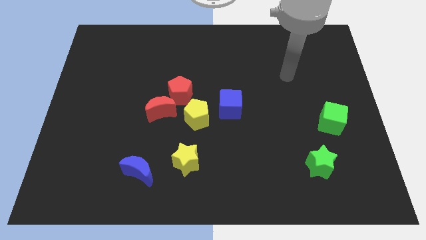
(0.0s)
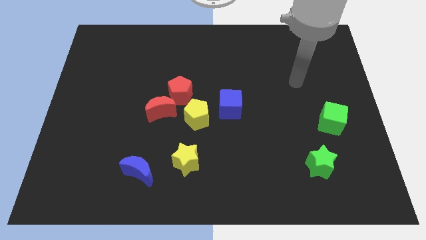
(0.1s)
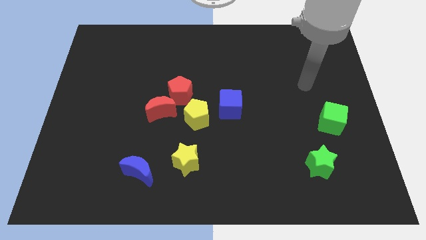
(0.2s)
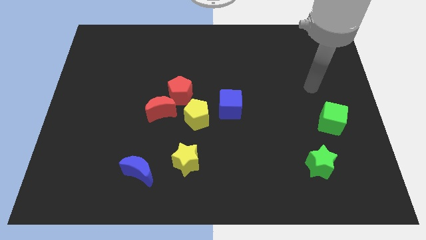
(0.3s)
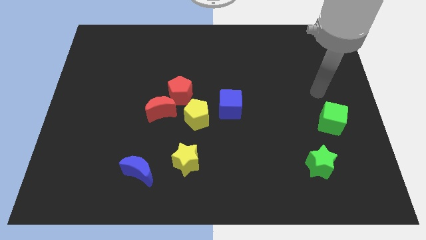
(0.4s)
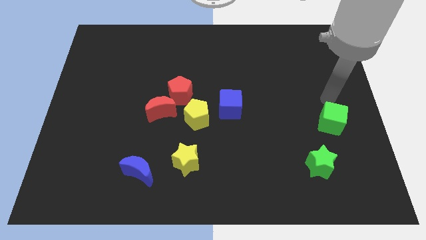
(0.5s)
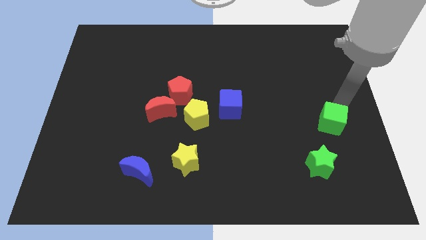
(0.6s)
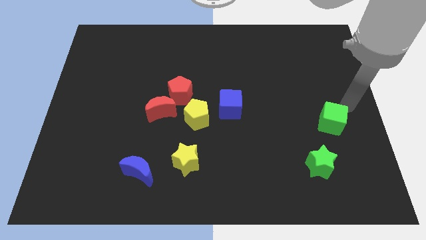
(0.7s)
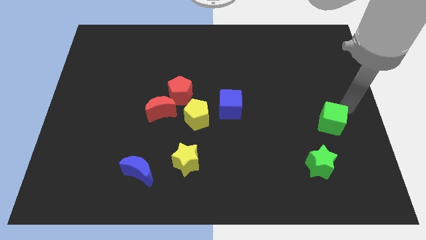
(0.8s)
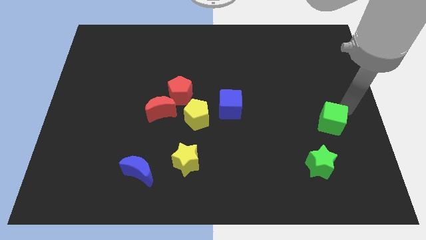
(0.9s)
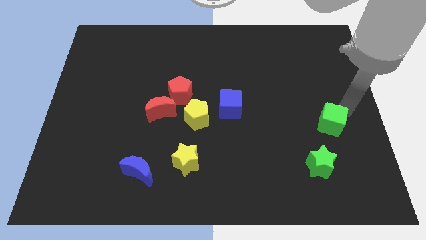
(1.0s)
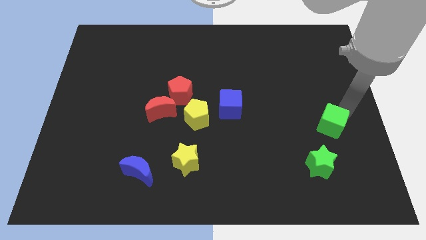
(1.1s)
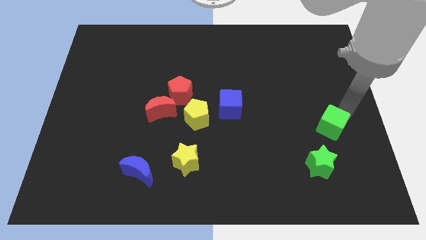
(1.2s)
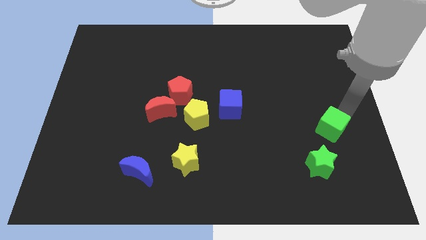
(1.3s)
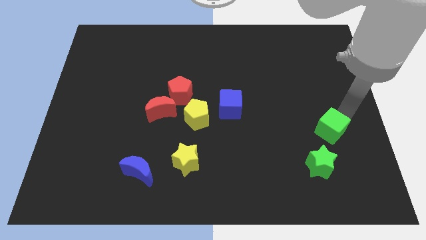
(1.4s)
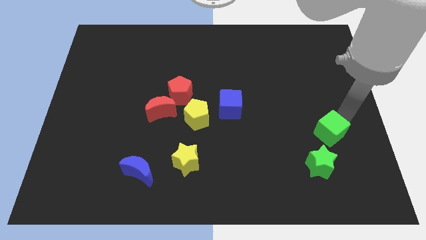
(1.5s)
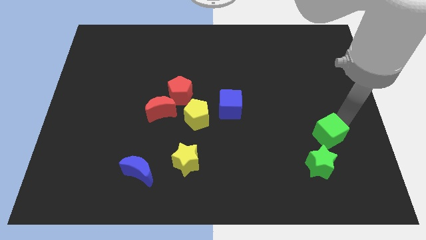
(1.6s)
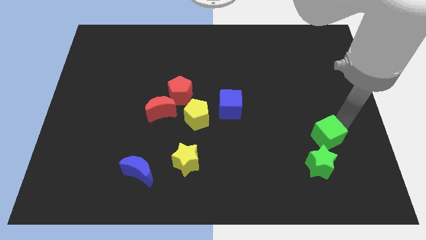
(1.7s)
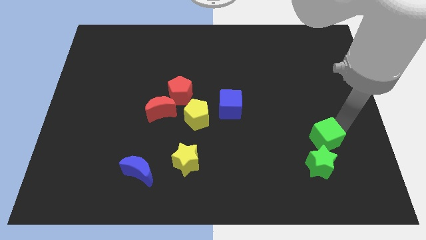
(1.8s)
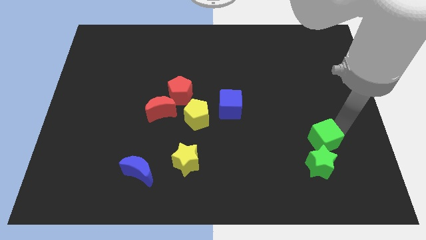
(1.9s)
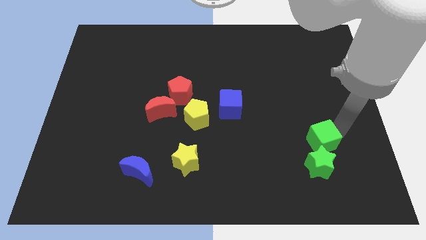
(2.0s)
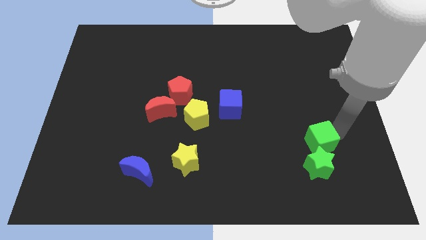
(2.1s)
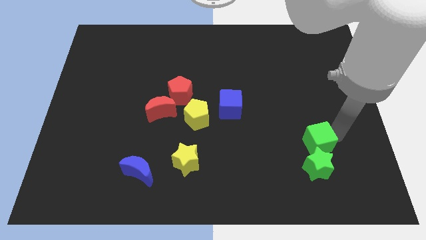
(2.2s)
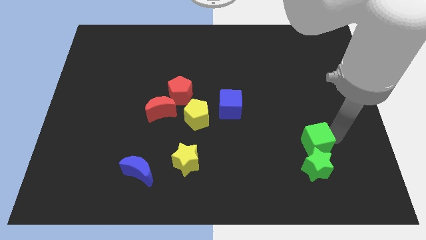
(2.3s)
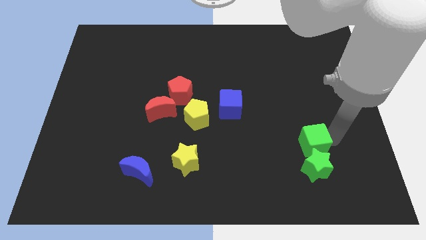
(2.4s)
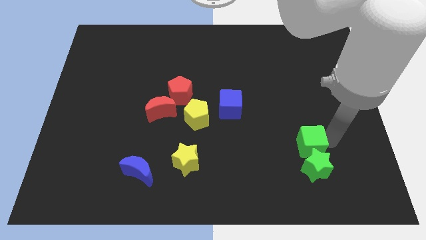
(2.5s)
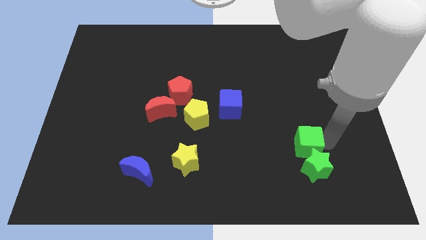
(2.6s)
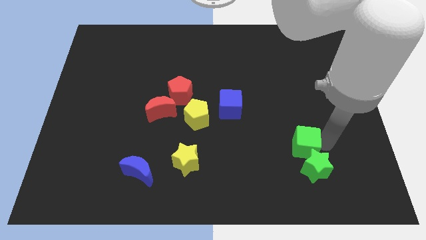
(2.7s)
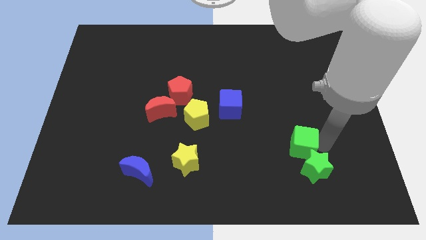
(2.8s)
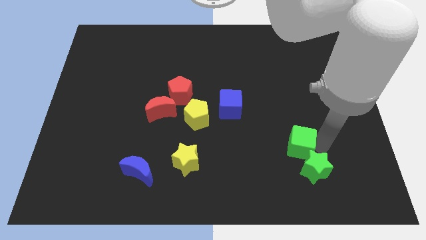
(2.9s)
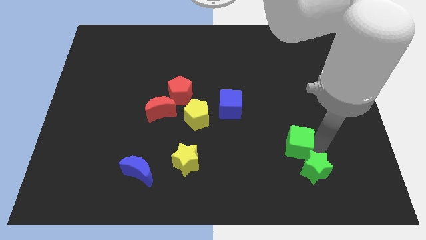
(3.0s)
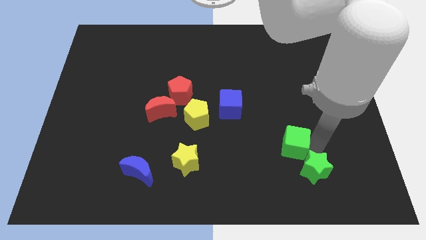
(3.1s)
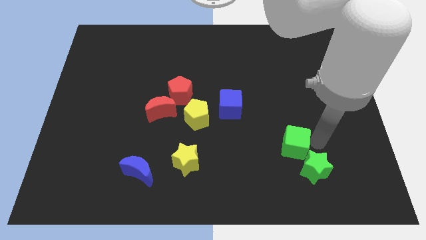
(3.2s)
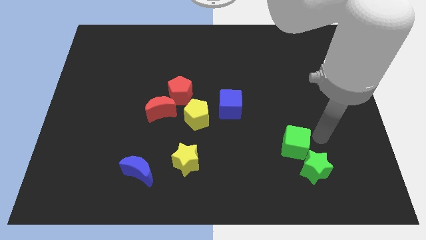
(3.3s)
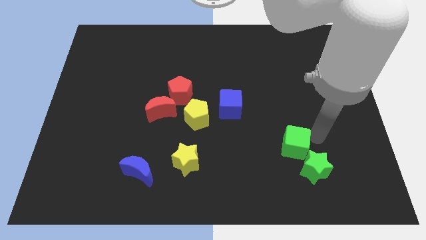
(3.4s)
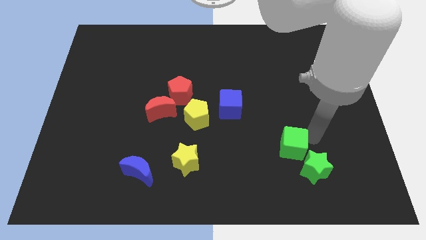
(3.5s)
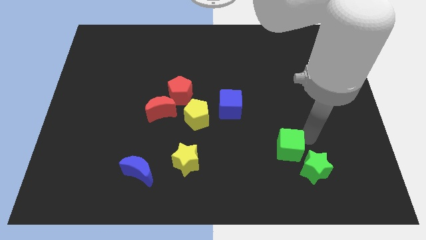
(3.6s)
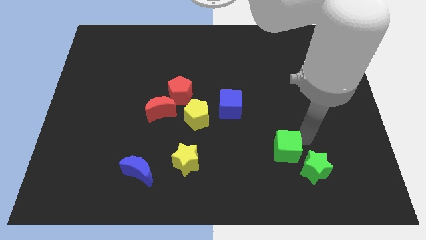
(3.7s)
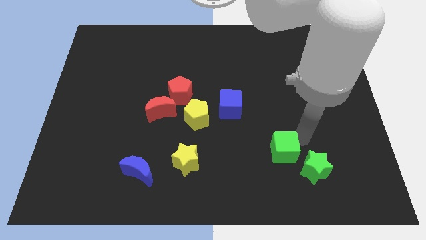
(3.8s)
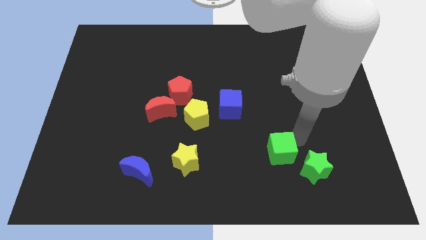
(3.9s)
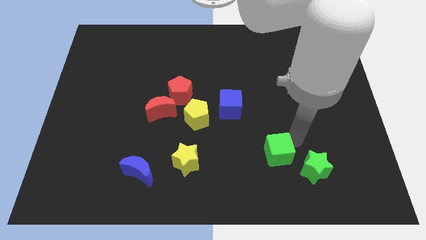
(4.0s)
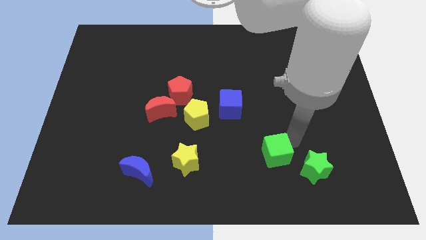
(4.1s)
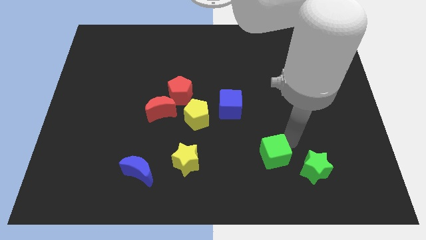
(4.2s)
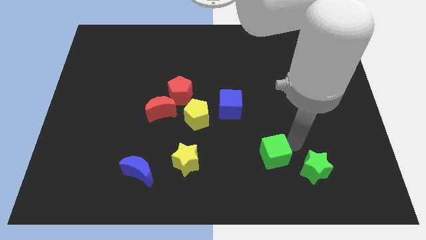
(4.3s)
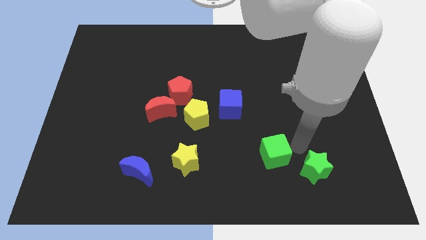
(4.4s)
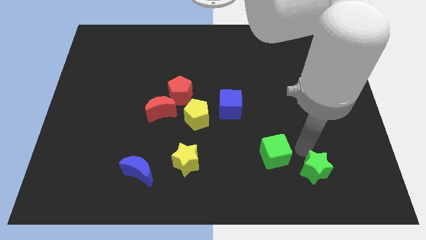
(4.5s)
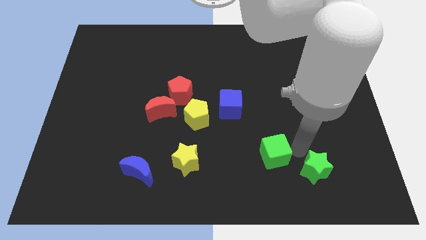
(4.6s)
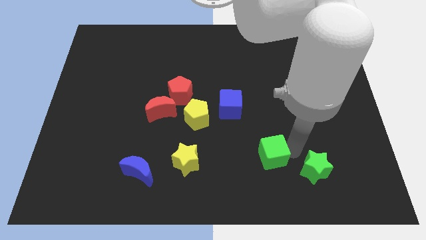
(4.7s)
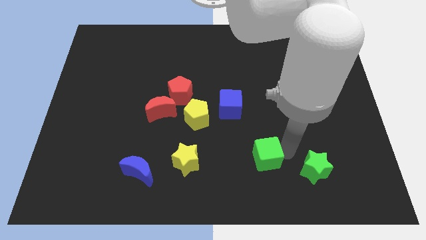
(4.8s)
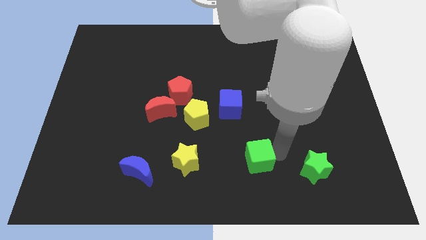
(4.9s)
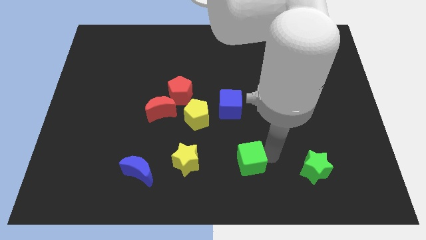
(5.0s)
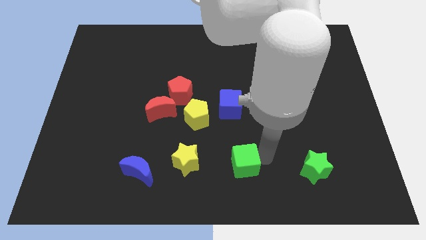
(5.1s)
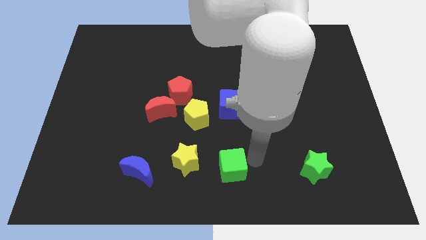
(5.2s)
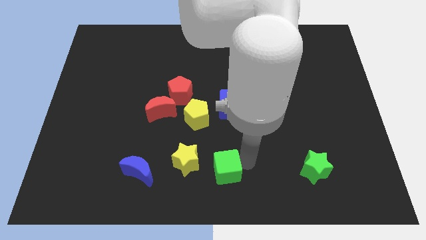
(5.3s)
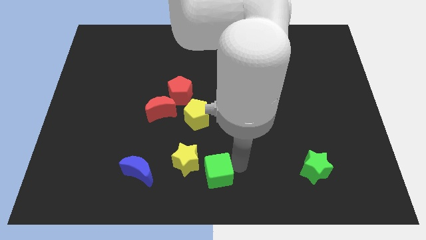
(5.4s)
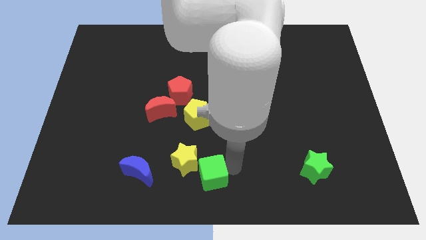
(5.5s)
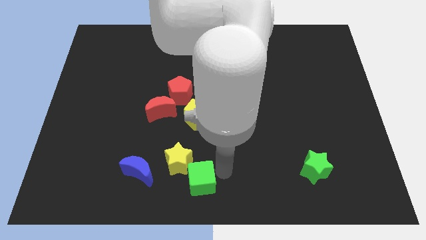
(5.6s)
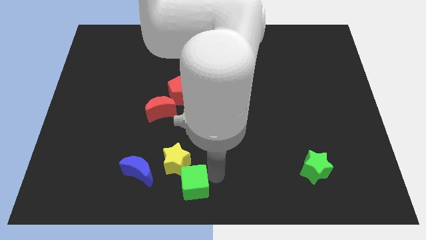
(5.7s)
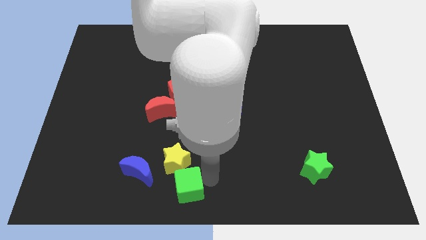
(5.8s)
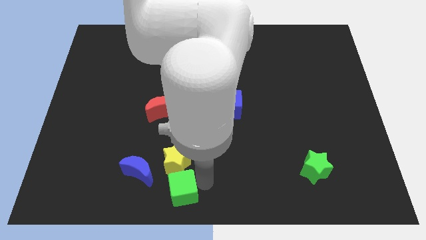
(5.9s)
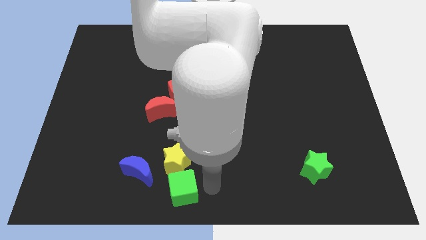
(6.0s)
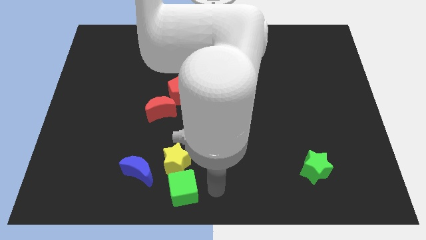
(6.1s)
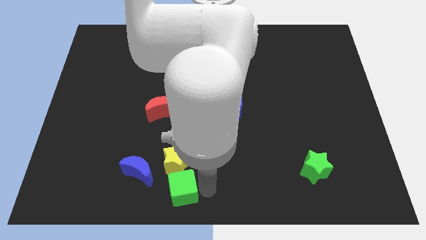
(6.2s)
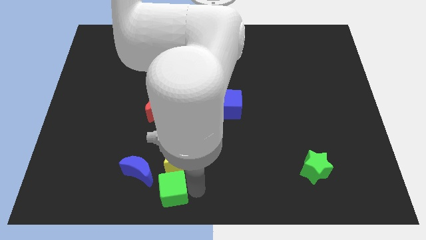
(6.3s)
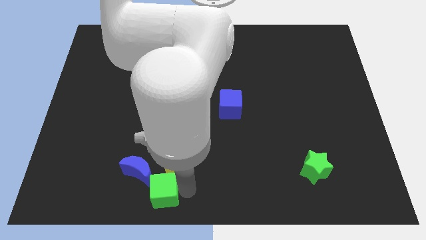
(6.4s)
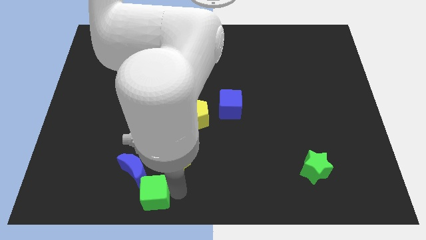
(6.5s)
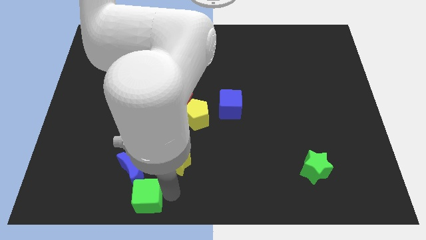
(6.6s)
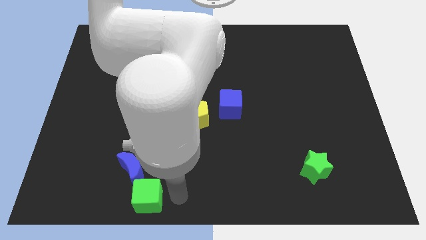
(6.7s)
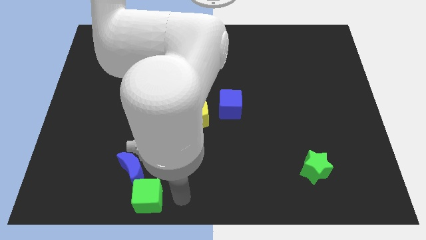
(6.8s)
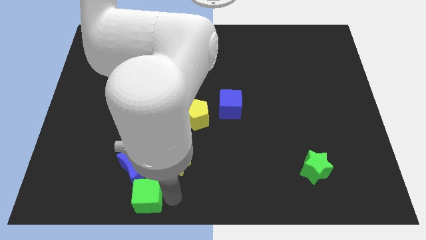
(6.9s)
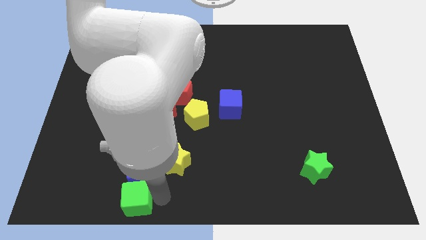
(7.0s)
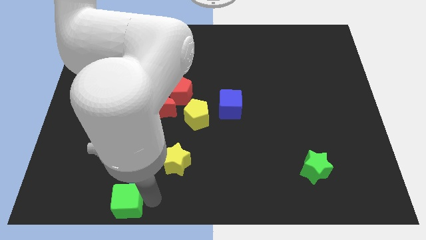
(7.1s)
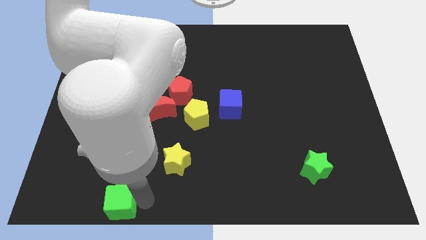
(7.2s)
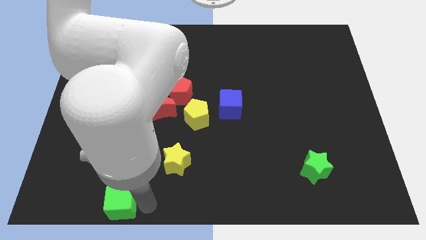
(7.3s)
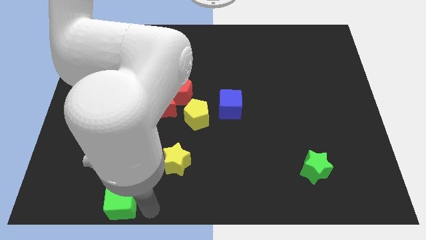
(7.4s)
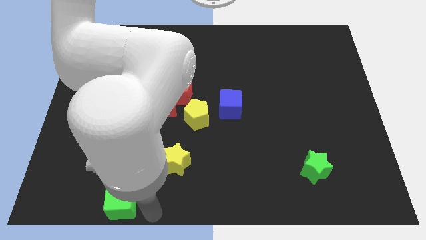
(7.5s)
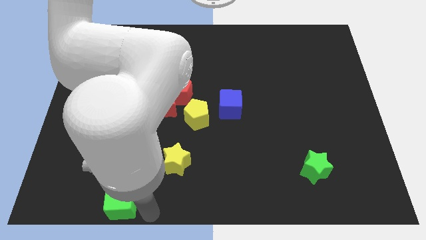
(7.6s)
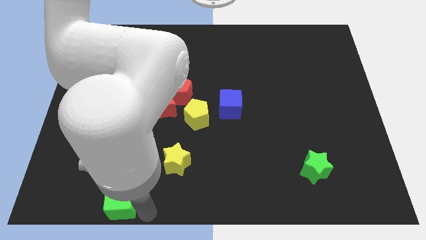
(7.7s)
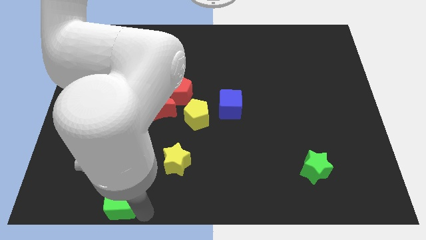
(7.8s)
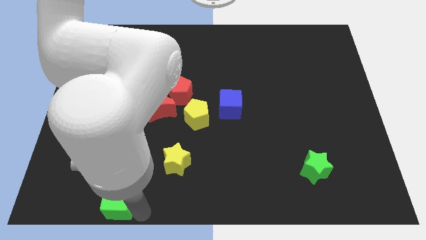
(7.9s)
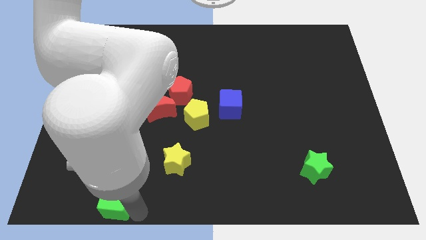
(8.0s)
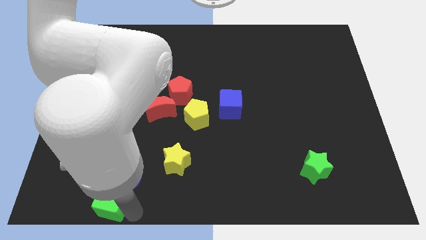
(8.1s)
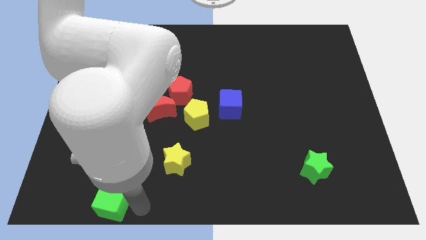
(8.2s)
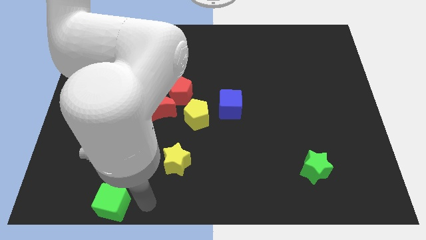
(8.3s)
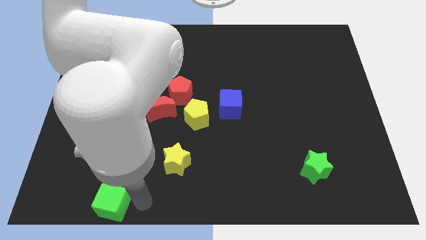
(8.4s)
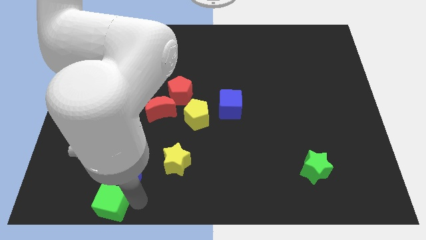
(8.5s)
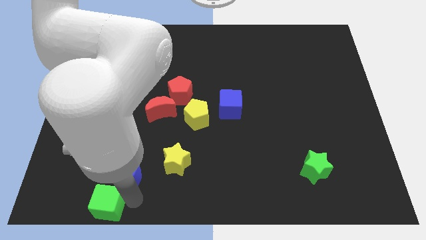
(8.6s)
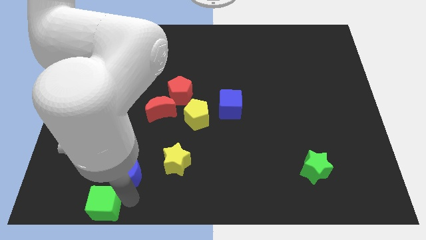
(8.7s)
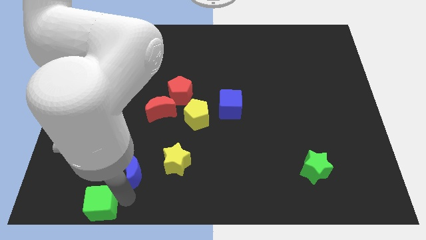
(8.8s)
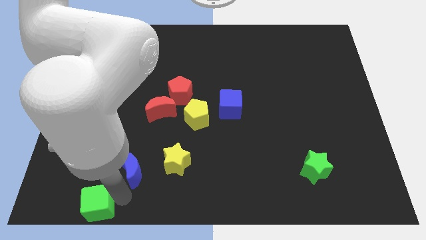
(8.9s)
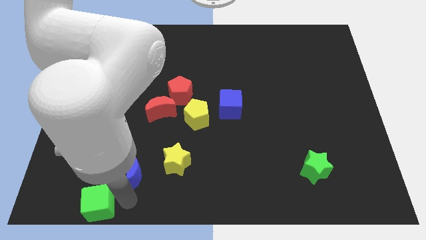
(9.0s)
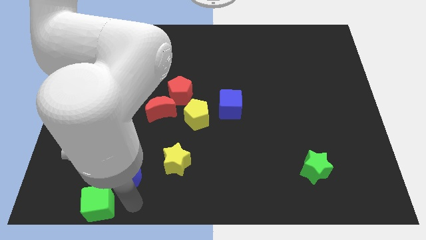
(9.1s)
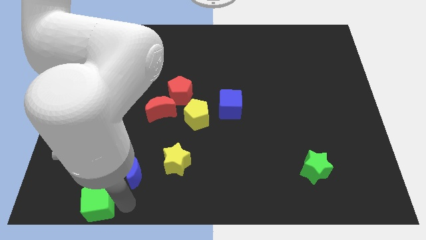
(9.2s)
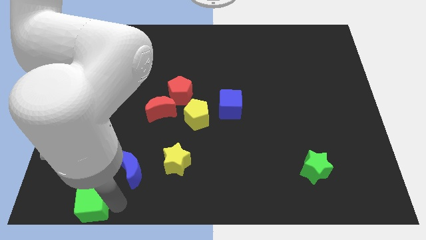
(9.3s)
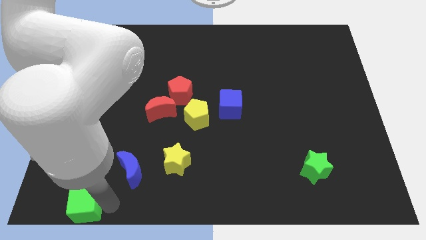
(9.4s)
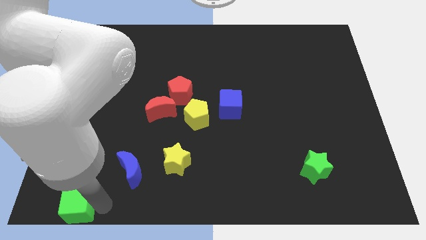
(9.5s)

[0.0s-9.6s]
move the green cube to the bottom left of the board
